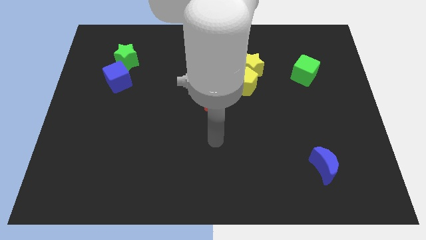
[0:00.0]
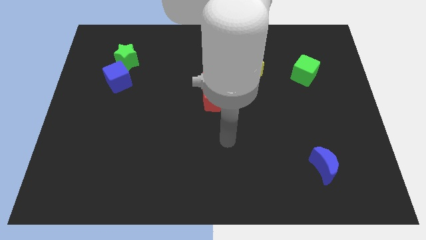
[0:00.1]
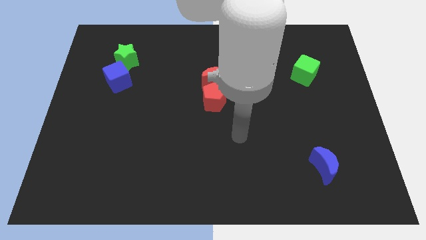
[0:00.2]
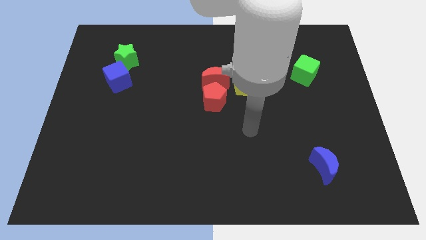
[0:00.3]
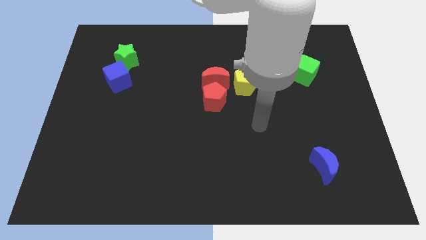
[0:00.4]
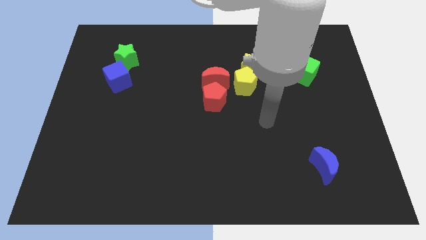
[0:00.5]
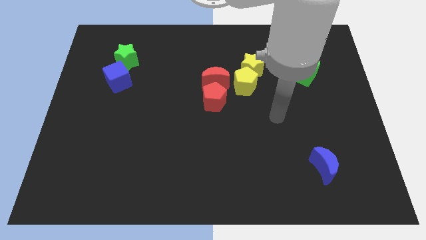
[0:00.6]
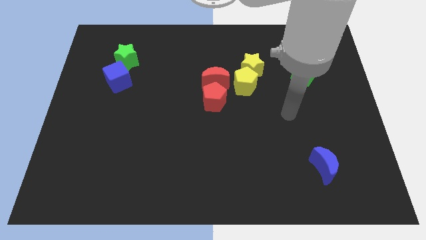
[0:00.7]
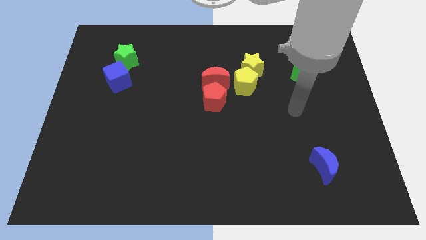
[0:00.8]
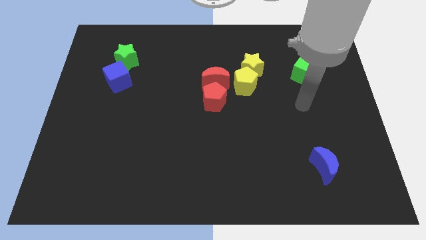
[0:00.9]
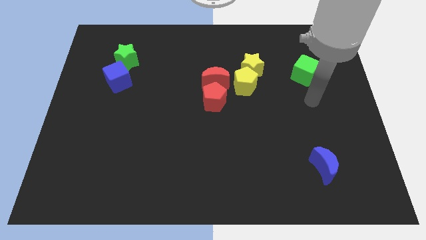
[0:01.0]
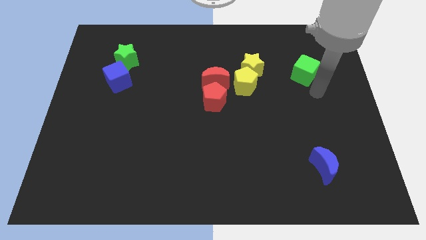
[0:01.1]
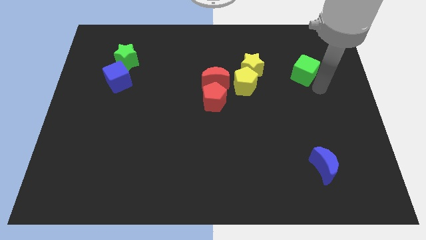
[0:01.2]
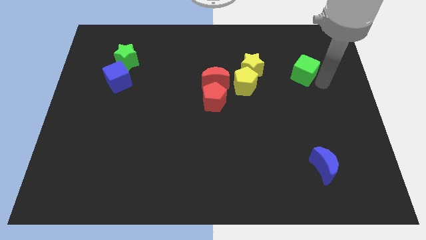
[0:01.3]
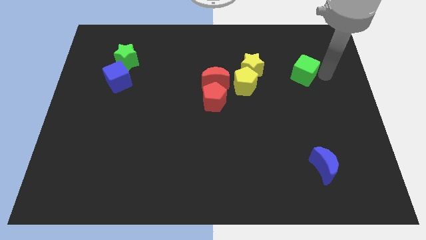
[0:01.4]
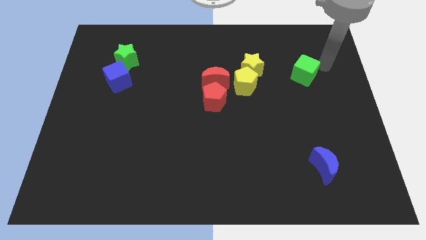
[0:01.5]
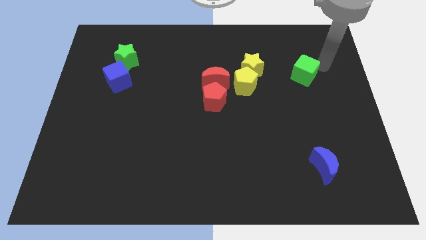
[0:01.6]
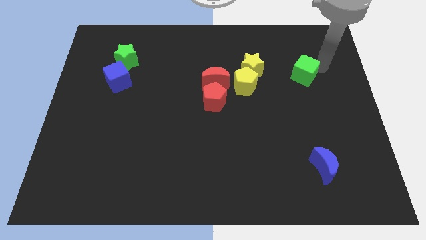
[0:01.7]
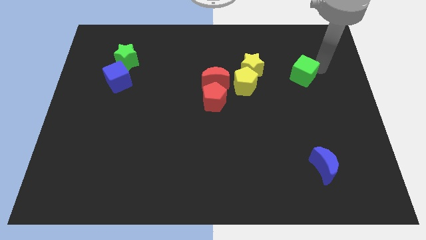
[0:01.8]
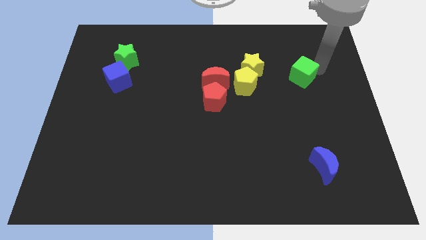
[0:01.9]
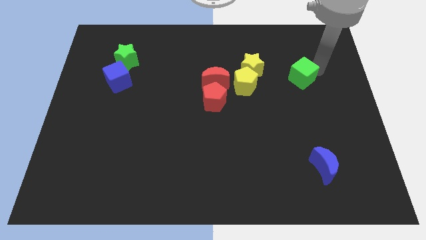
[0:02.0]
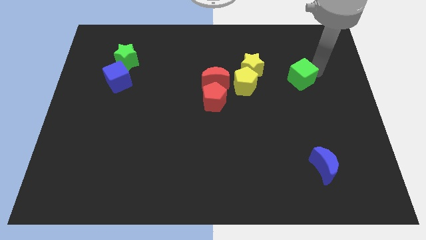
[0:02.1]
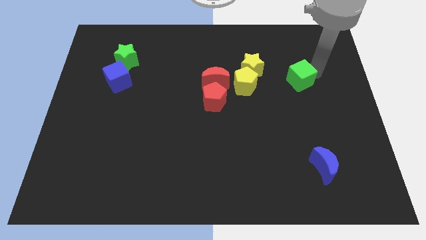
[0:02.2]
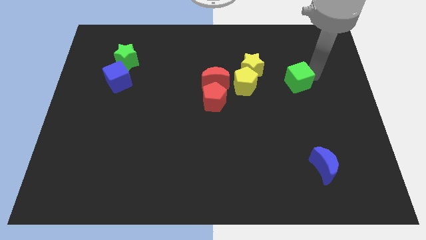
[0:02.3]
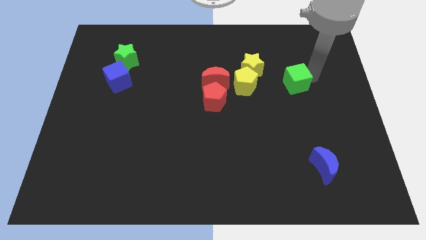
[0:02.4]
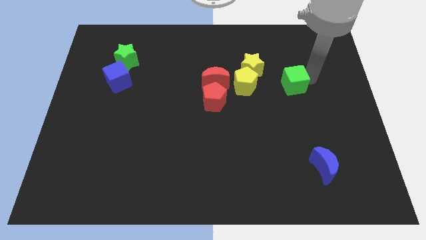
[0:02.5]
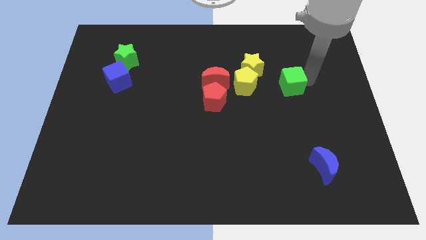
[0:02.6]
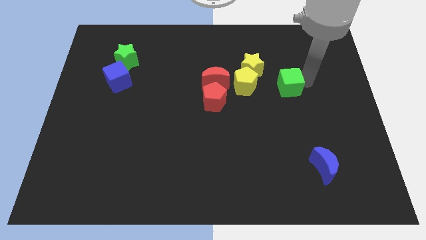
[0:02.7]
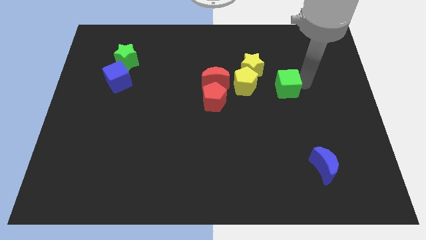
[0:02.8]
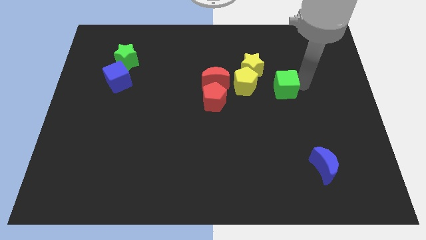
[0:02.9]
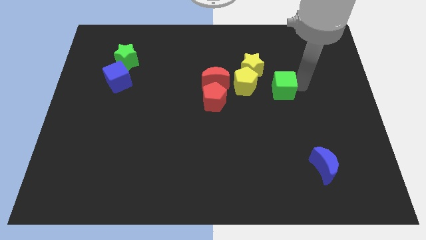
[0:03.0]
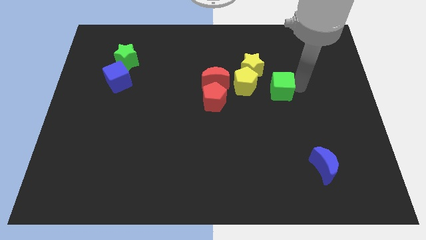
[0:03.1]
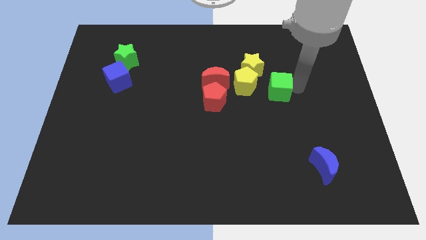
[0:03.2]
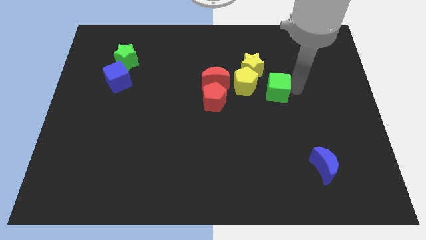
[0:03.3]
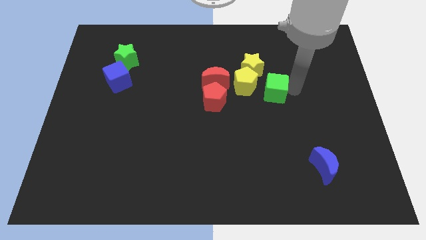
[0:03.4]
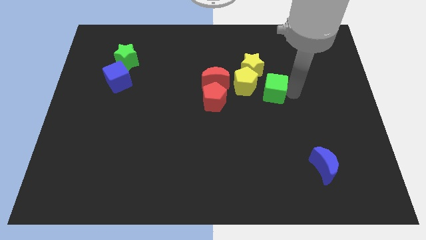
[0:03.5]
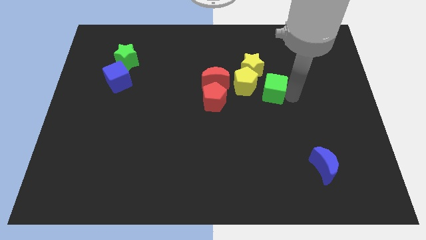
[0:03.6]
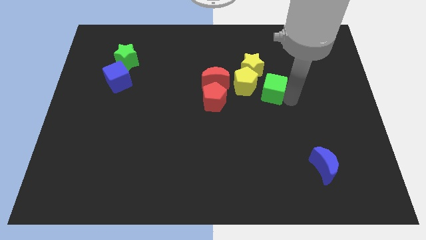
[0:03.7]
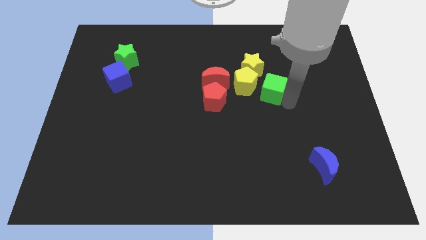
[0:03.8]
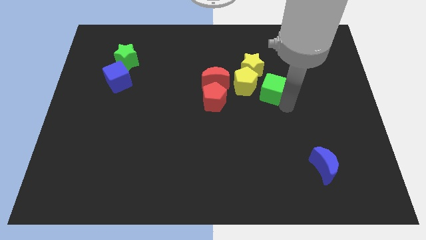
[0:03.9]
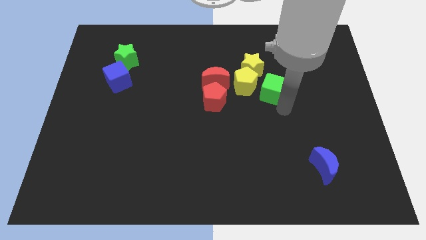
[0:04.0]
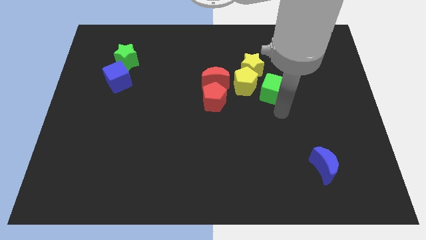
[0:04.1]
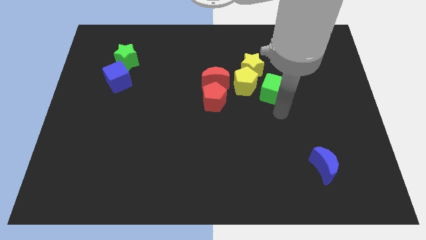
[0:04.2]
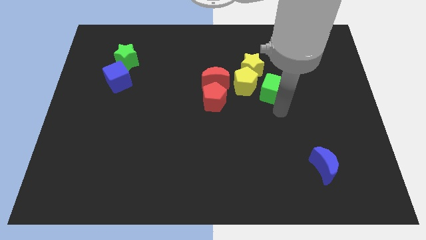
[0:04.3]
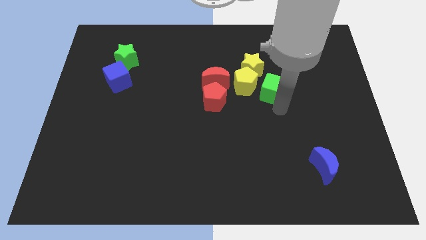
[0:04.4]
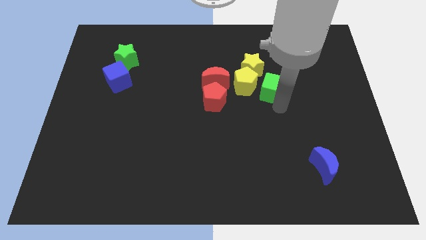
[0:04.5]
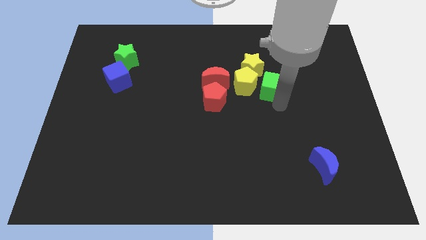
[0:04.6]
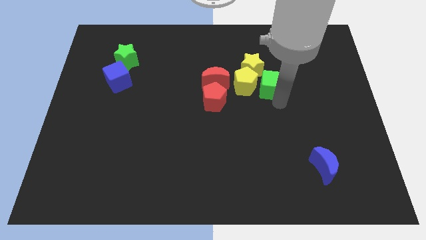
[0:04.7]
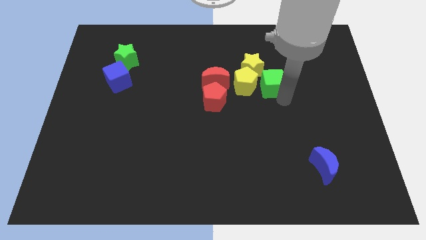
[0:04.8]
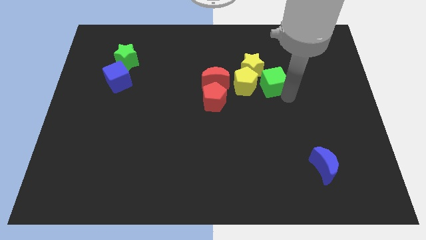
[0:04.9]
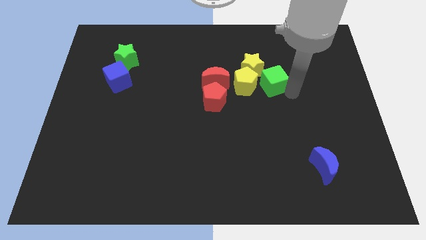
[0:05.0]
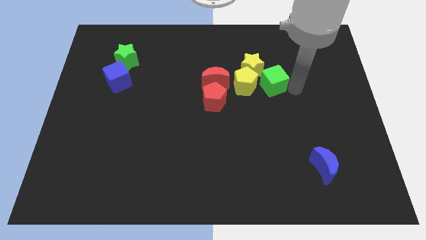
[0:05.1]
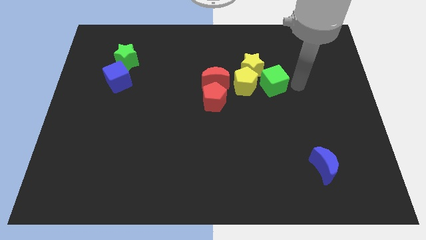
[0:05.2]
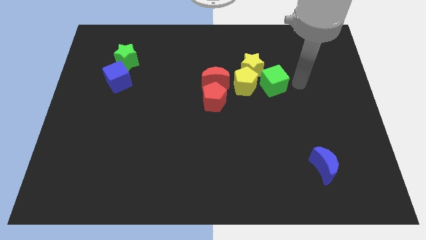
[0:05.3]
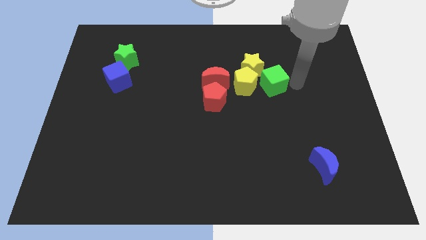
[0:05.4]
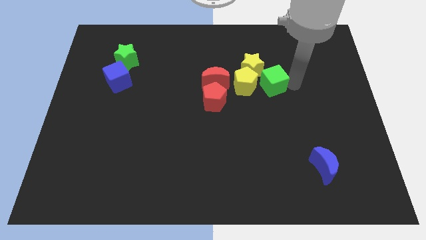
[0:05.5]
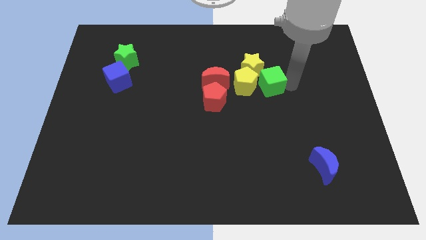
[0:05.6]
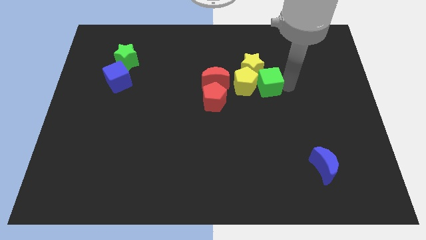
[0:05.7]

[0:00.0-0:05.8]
slide the green cube towards the yellow pentagon

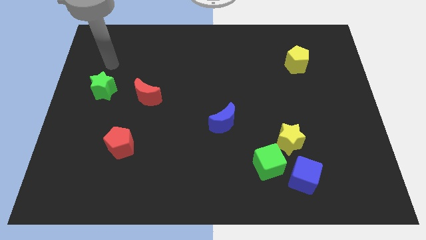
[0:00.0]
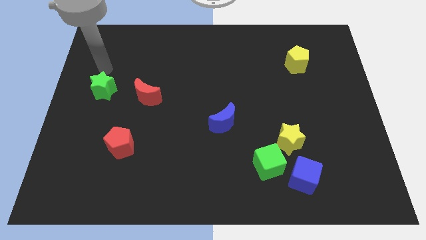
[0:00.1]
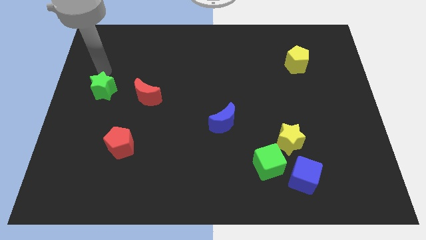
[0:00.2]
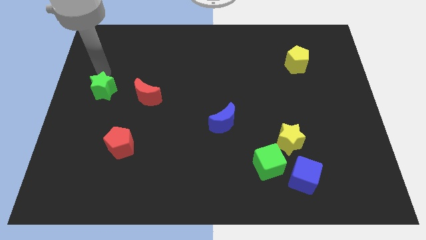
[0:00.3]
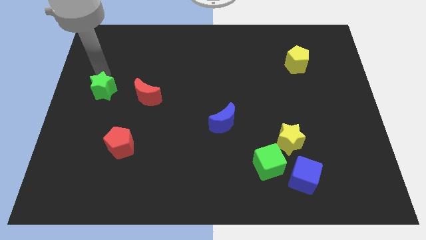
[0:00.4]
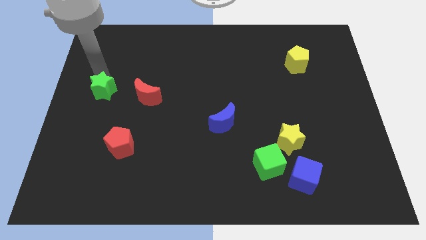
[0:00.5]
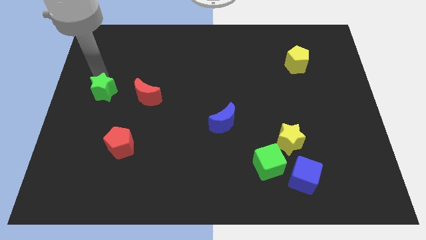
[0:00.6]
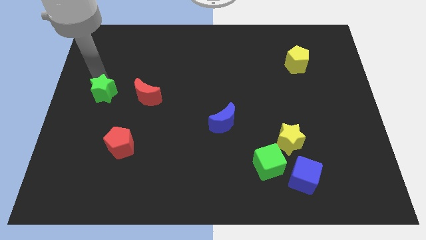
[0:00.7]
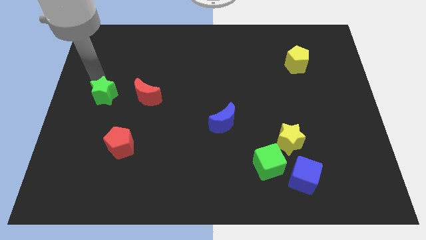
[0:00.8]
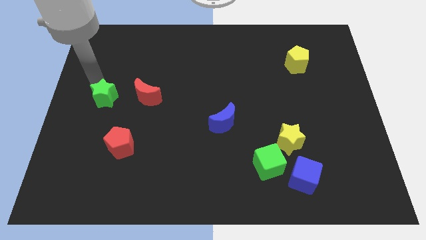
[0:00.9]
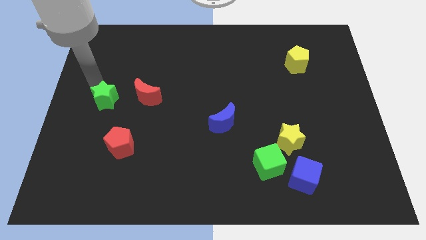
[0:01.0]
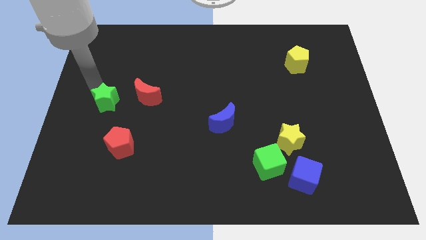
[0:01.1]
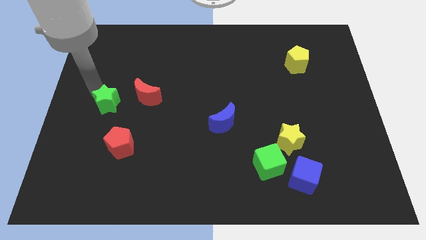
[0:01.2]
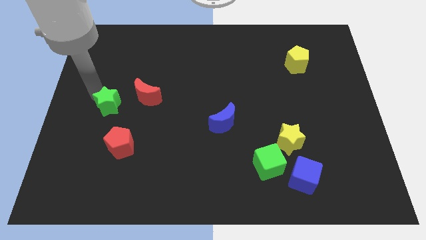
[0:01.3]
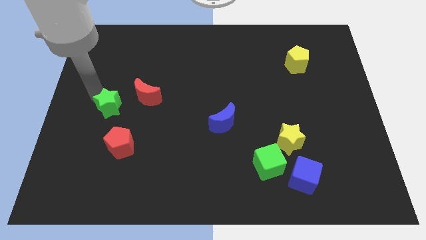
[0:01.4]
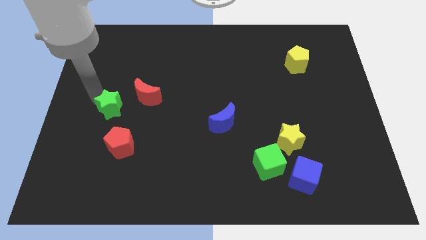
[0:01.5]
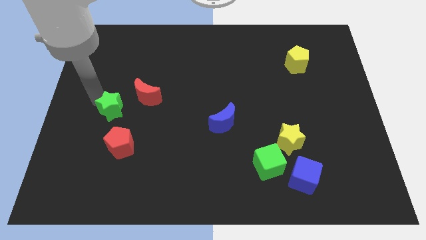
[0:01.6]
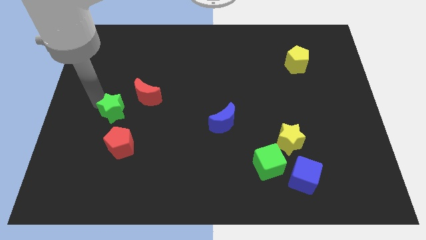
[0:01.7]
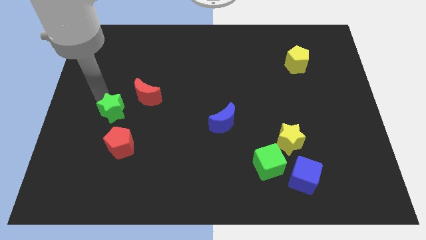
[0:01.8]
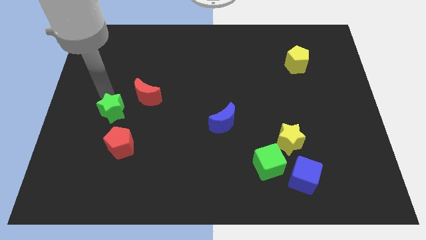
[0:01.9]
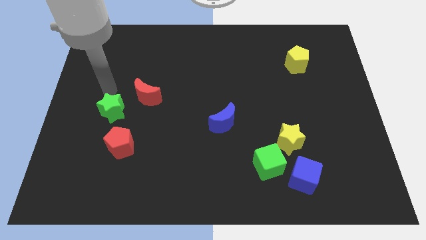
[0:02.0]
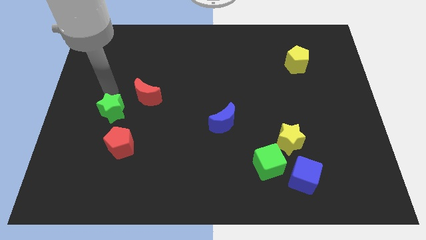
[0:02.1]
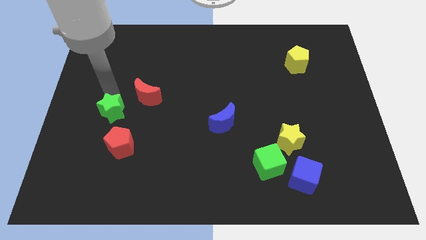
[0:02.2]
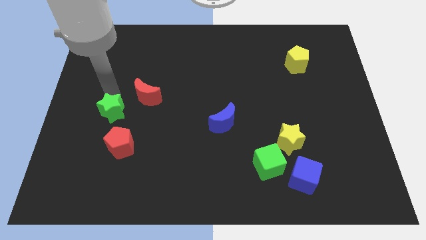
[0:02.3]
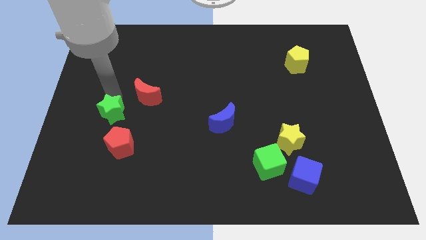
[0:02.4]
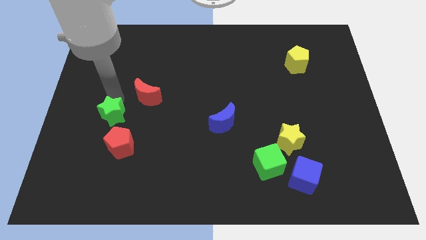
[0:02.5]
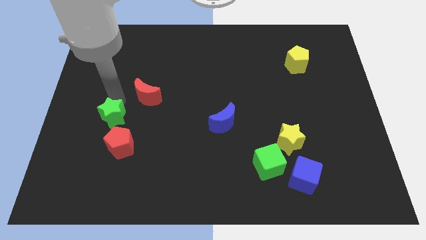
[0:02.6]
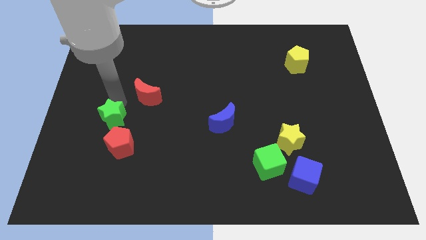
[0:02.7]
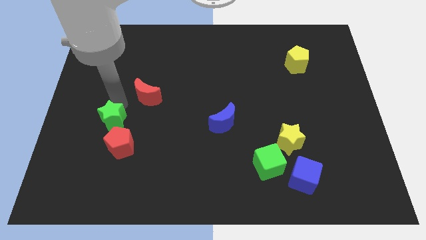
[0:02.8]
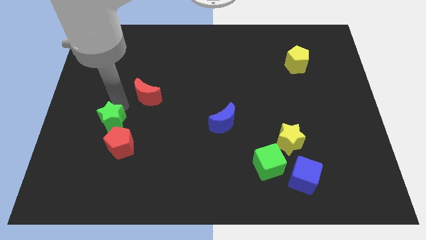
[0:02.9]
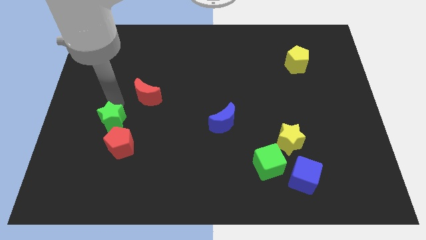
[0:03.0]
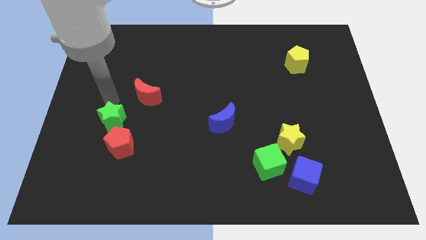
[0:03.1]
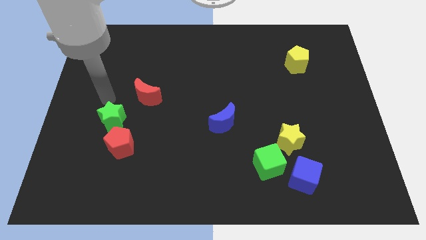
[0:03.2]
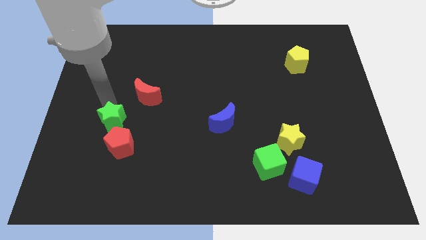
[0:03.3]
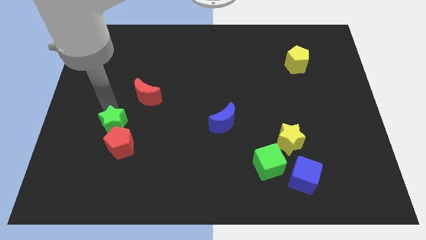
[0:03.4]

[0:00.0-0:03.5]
slide the green star next to the red pentagon
